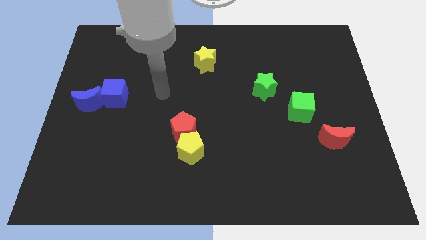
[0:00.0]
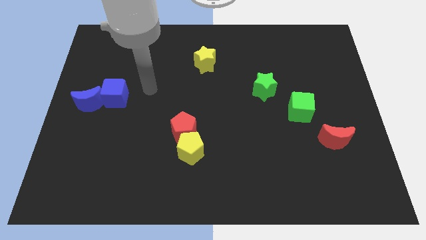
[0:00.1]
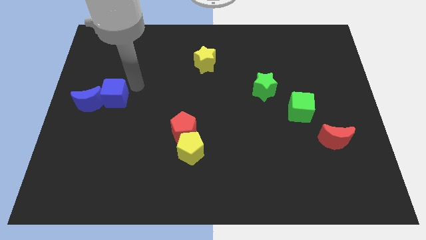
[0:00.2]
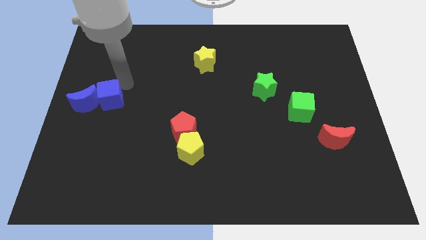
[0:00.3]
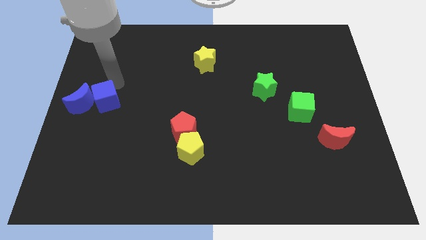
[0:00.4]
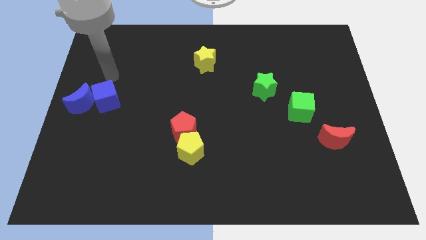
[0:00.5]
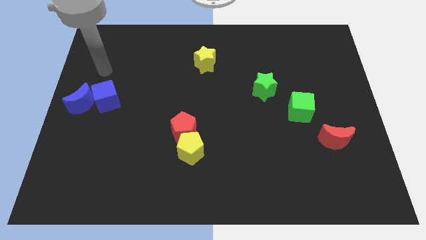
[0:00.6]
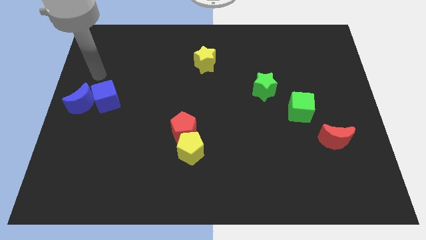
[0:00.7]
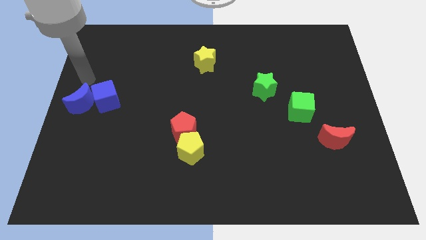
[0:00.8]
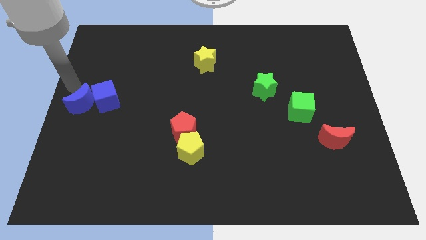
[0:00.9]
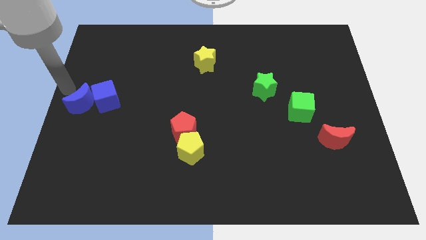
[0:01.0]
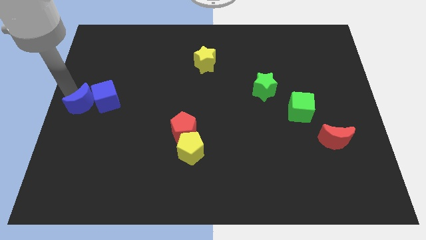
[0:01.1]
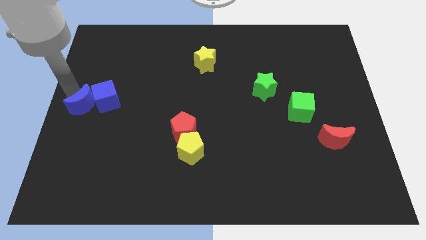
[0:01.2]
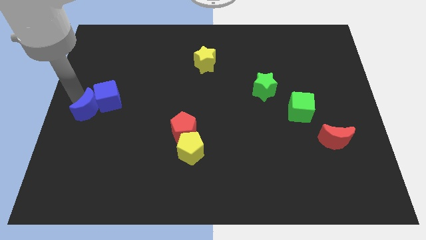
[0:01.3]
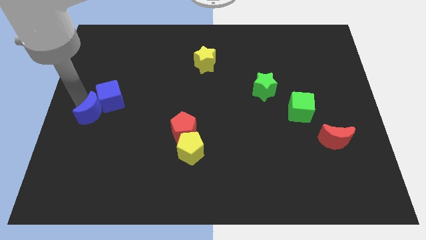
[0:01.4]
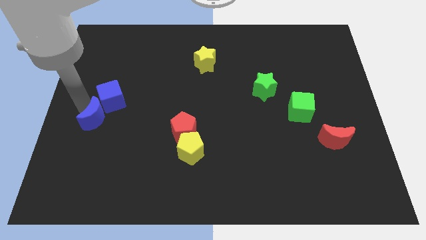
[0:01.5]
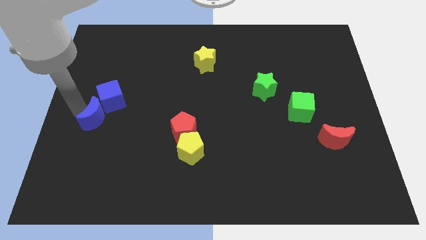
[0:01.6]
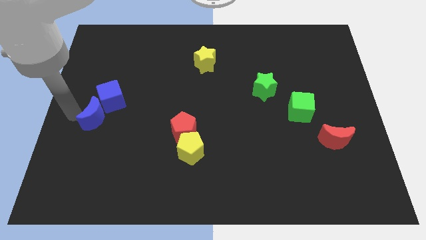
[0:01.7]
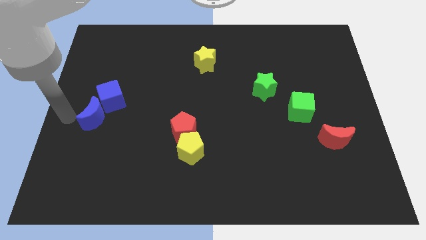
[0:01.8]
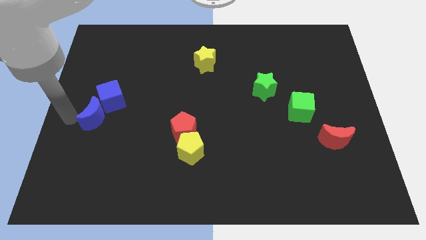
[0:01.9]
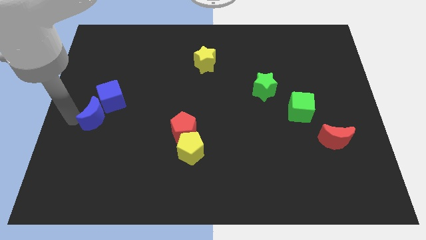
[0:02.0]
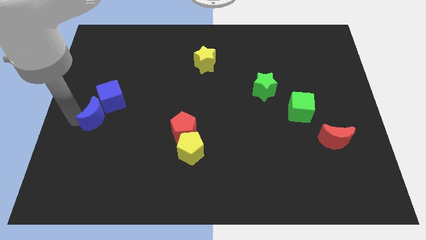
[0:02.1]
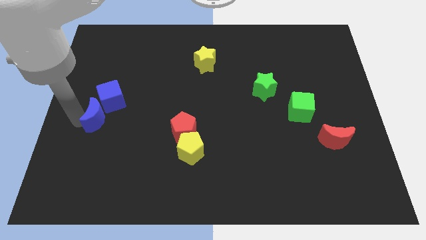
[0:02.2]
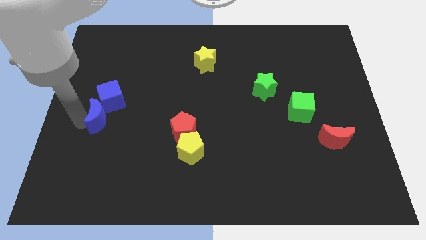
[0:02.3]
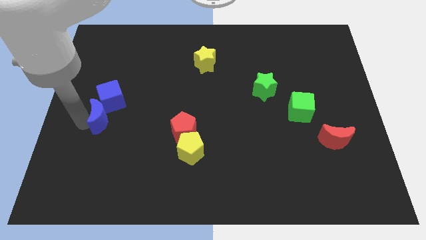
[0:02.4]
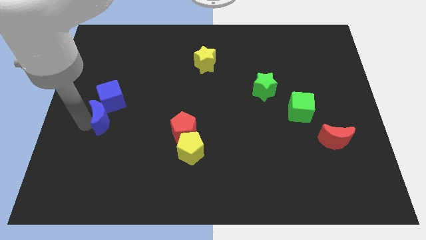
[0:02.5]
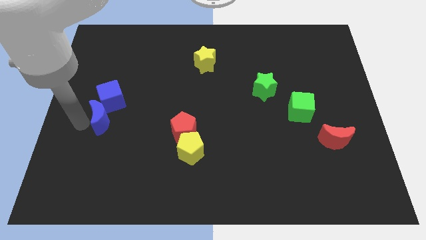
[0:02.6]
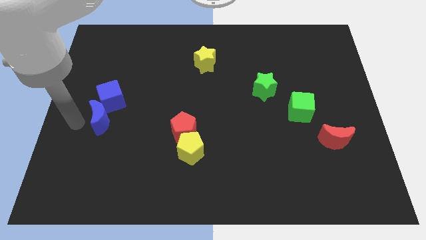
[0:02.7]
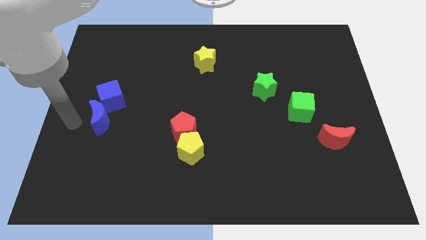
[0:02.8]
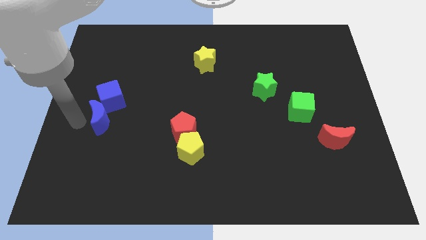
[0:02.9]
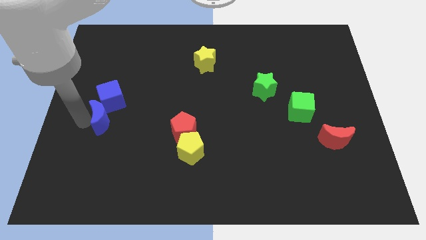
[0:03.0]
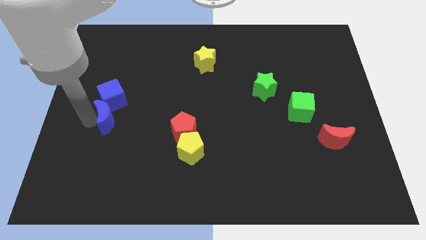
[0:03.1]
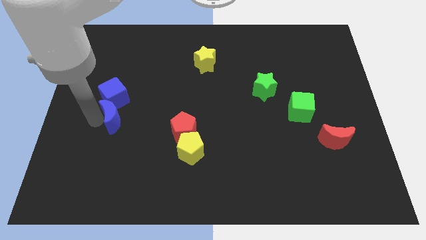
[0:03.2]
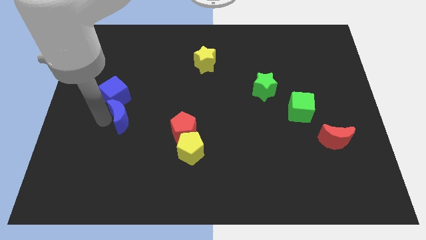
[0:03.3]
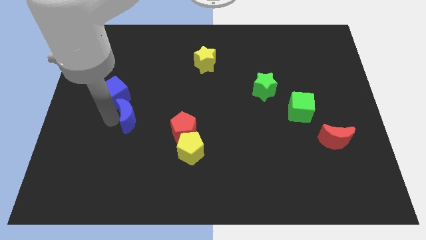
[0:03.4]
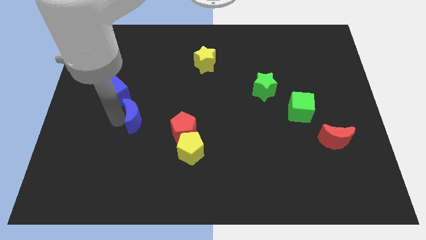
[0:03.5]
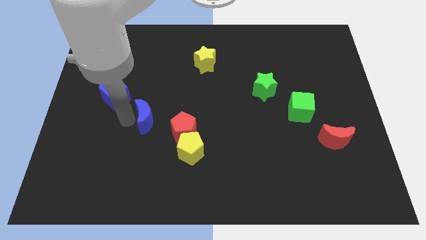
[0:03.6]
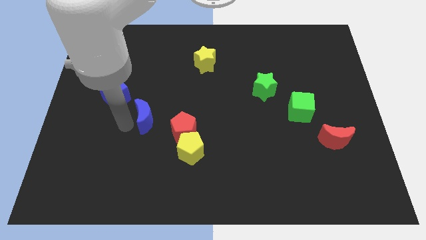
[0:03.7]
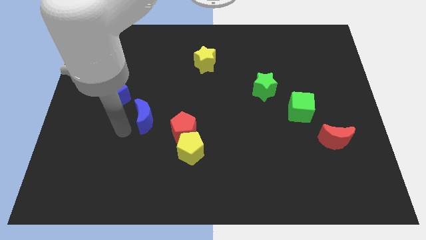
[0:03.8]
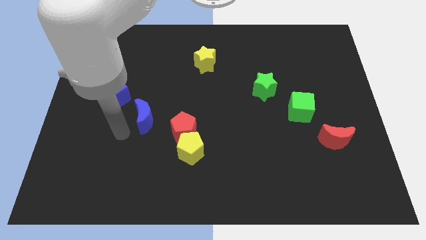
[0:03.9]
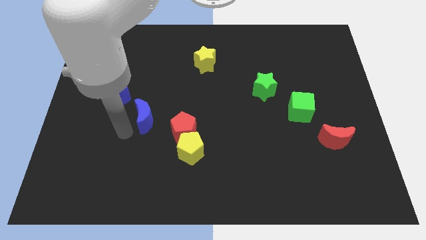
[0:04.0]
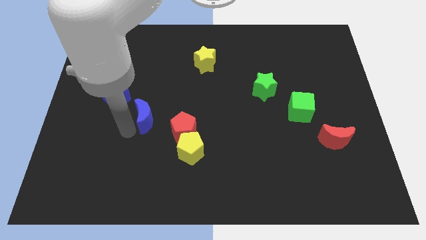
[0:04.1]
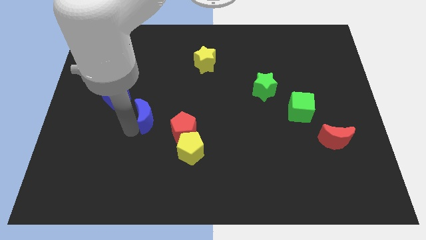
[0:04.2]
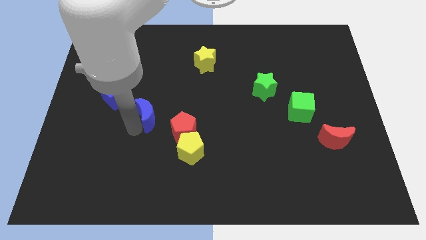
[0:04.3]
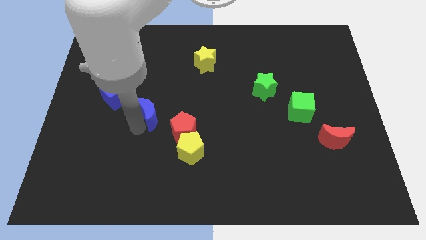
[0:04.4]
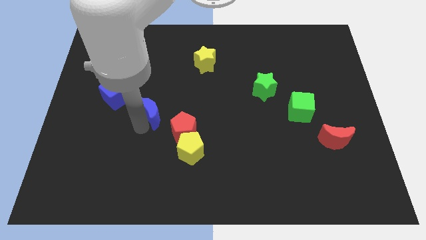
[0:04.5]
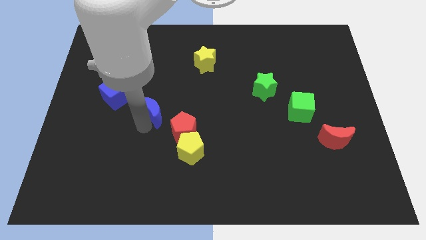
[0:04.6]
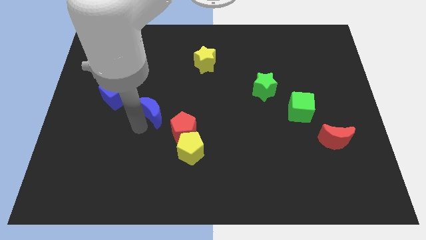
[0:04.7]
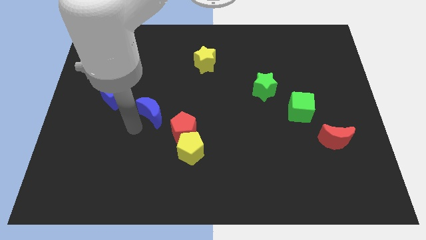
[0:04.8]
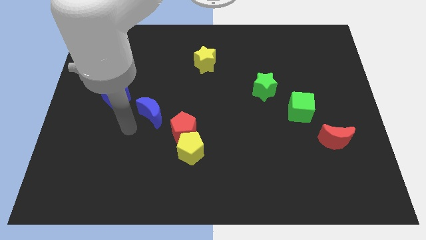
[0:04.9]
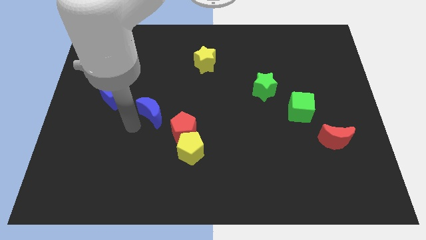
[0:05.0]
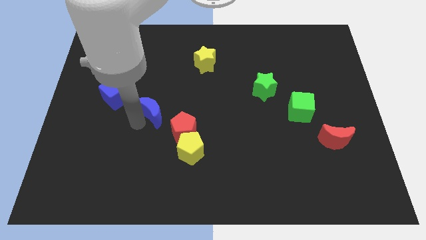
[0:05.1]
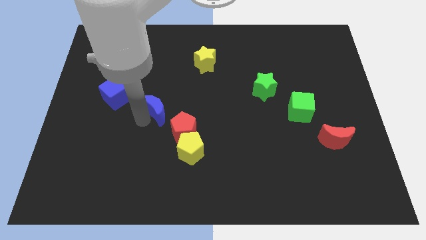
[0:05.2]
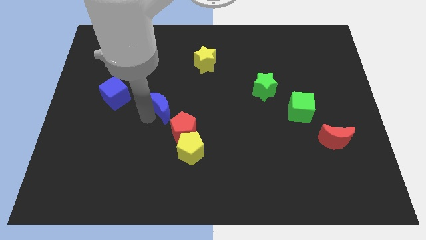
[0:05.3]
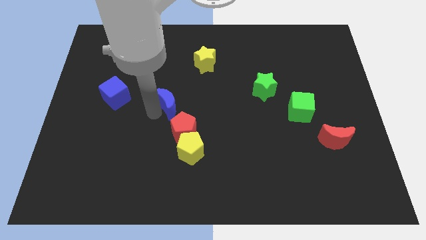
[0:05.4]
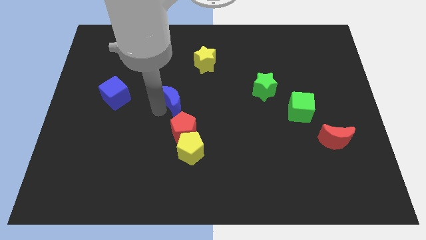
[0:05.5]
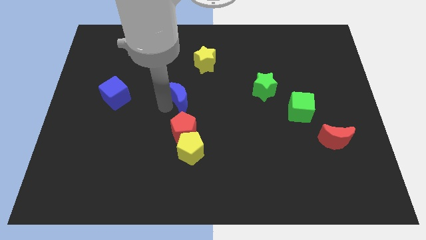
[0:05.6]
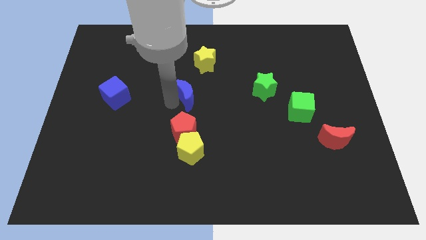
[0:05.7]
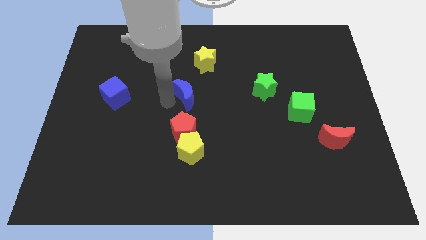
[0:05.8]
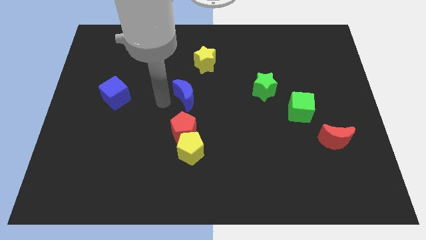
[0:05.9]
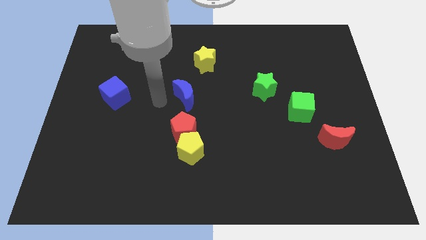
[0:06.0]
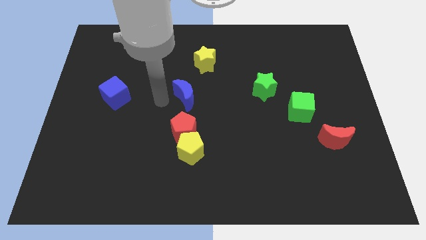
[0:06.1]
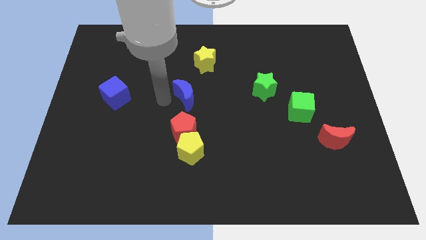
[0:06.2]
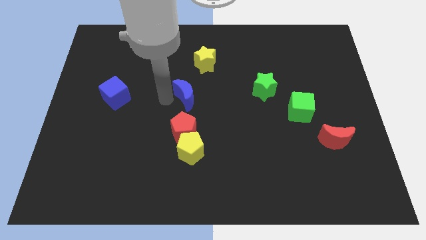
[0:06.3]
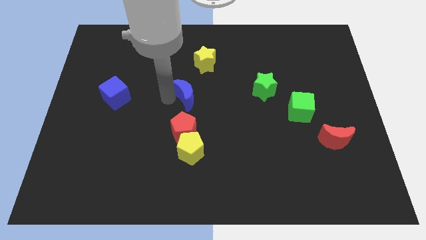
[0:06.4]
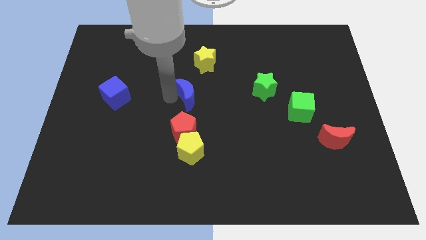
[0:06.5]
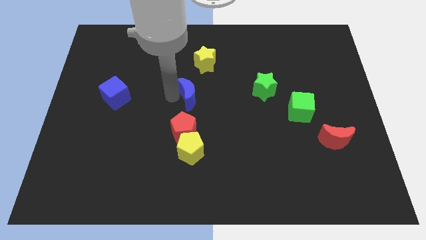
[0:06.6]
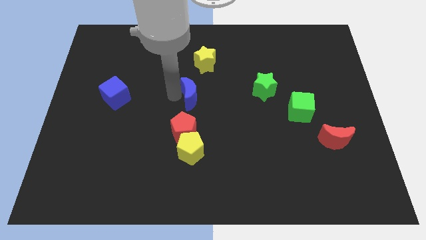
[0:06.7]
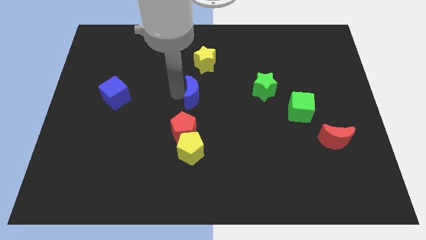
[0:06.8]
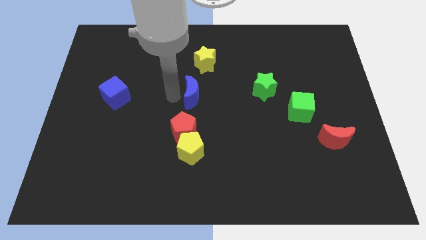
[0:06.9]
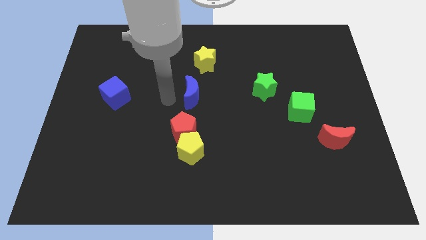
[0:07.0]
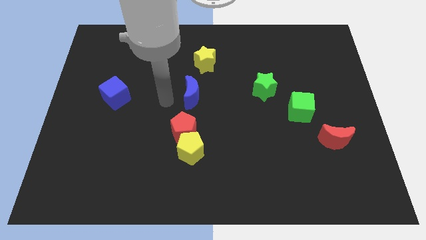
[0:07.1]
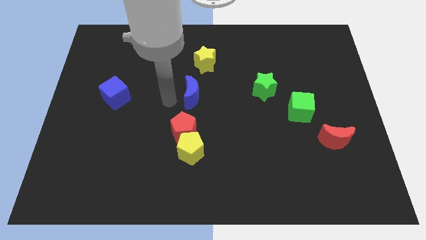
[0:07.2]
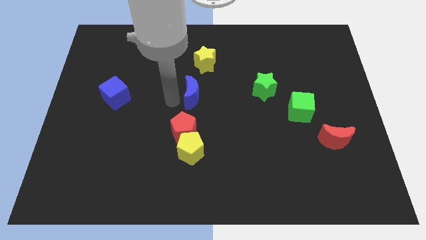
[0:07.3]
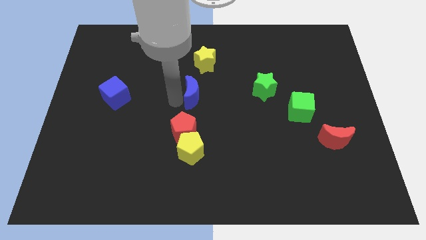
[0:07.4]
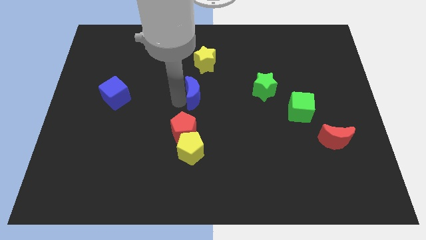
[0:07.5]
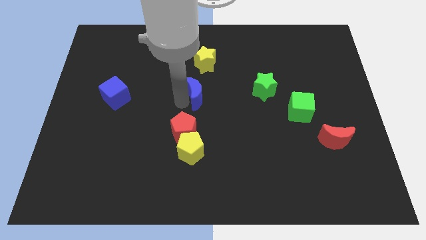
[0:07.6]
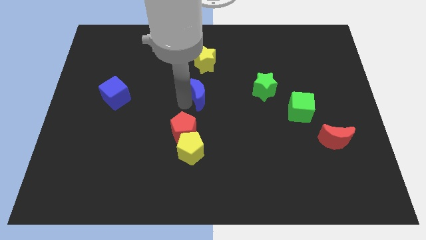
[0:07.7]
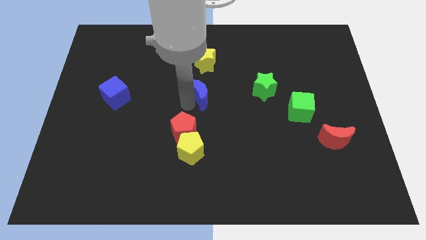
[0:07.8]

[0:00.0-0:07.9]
push the blue moon left of the green star
